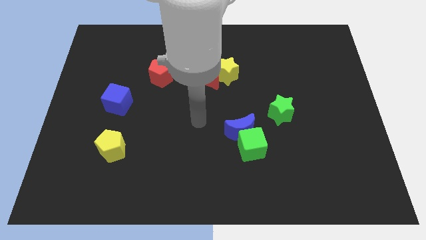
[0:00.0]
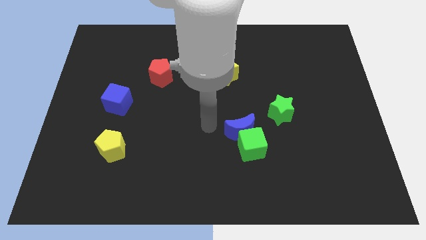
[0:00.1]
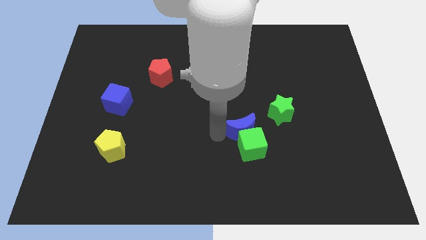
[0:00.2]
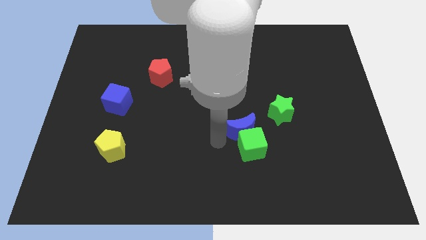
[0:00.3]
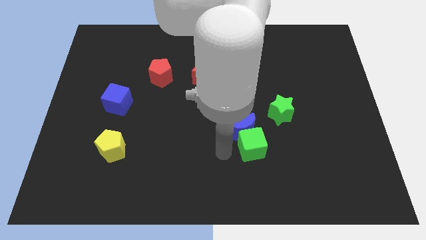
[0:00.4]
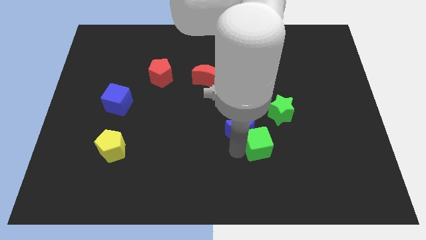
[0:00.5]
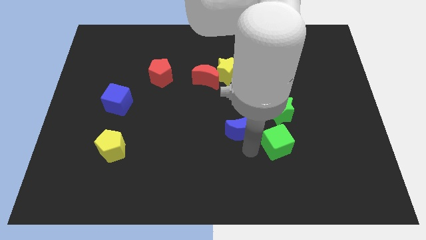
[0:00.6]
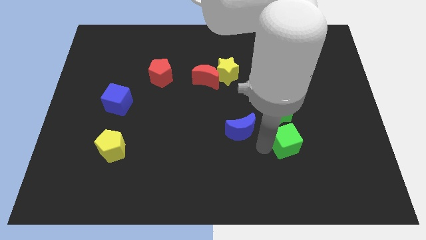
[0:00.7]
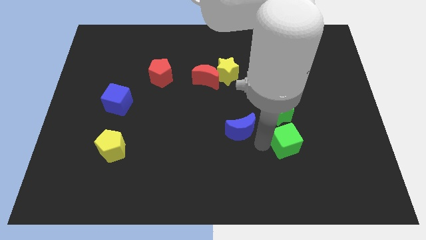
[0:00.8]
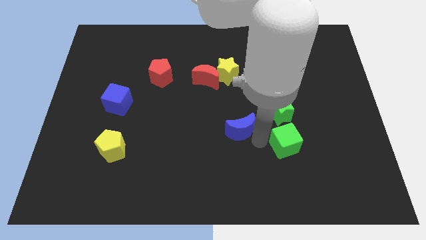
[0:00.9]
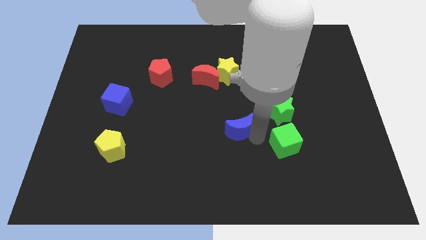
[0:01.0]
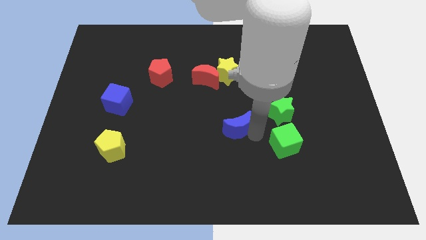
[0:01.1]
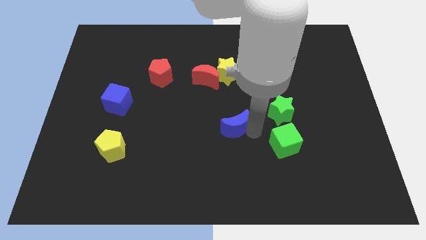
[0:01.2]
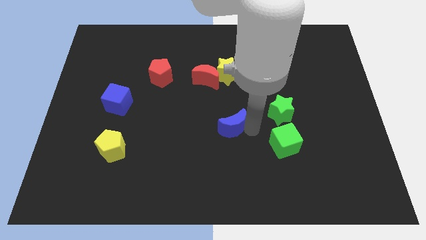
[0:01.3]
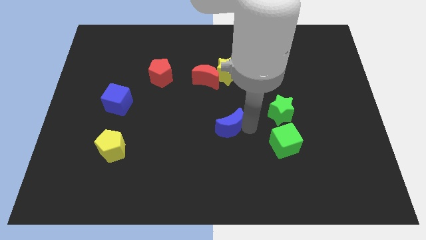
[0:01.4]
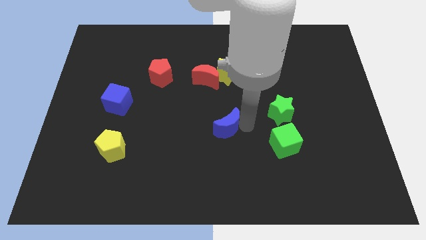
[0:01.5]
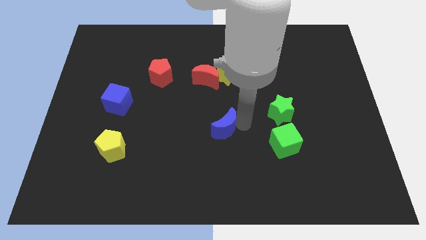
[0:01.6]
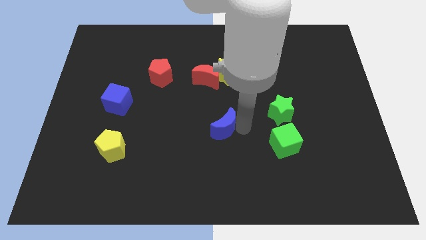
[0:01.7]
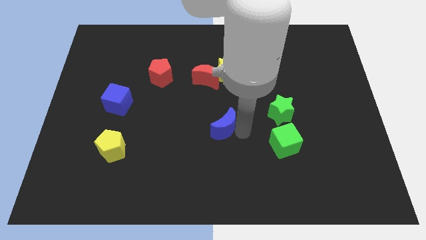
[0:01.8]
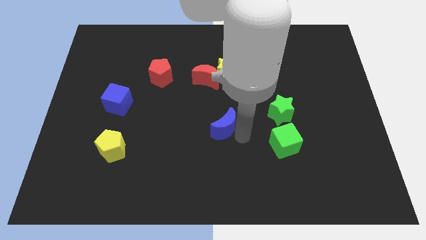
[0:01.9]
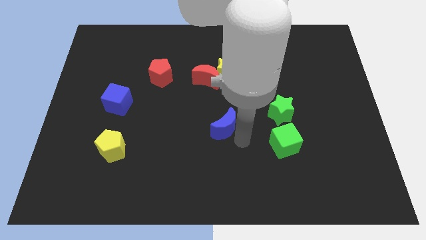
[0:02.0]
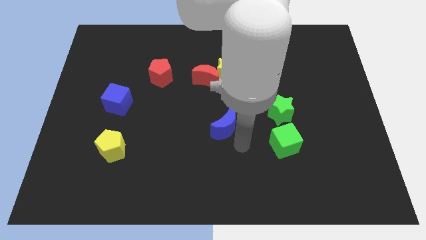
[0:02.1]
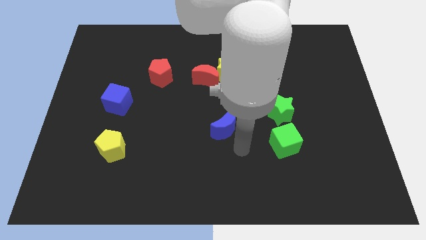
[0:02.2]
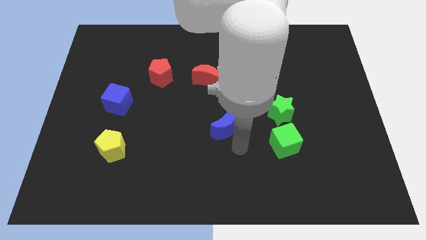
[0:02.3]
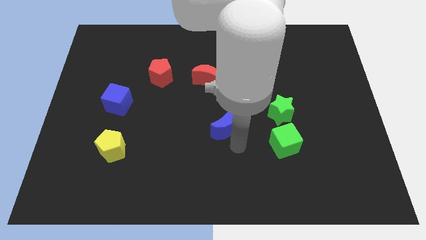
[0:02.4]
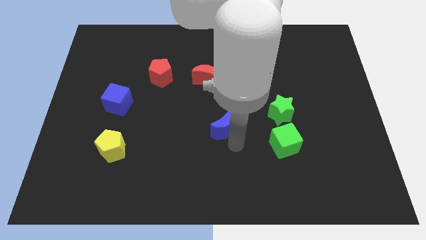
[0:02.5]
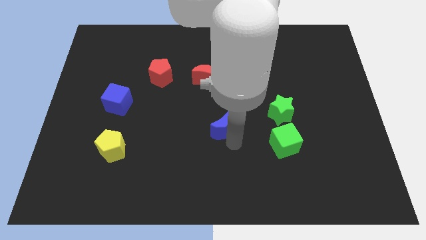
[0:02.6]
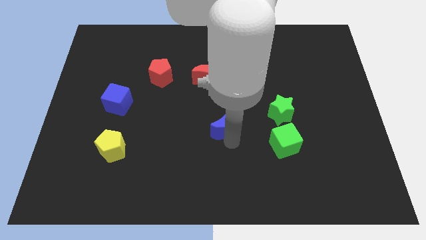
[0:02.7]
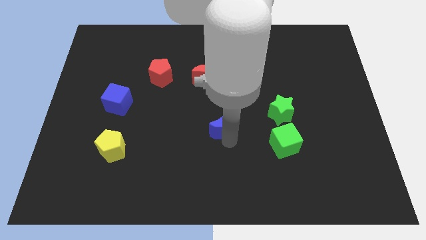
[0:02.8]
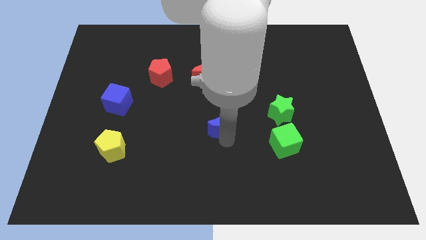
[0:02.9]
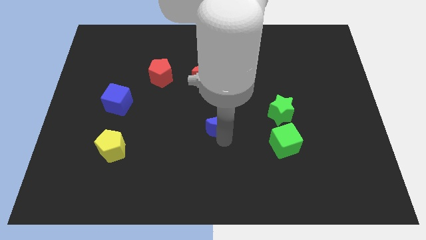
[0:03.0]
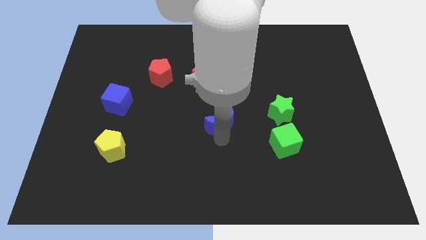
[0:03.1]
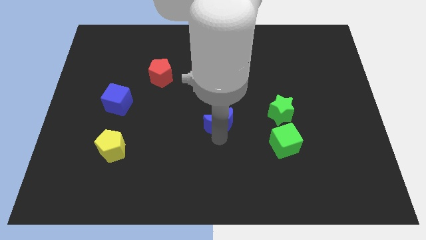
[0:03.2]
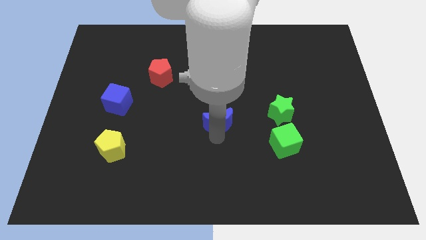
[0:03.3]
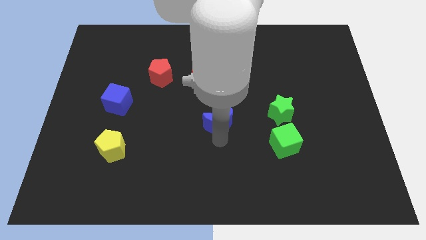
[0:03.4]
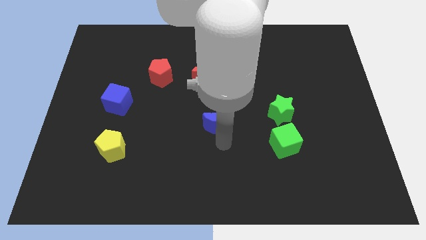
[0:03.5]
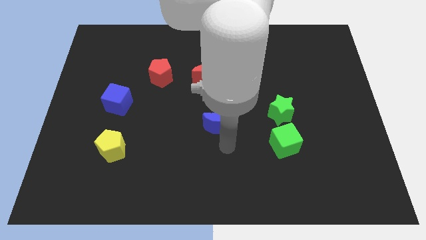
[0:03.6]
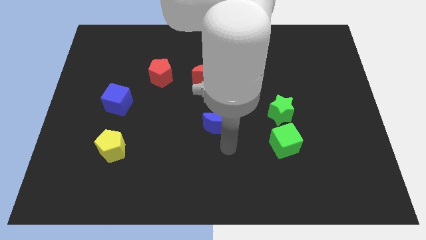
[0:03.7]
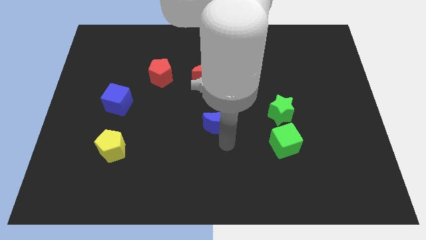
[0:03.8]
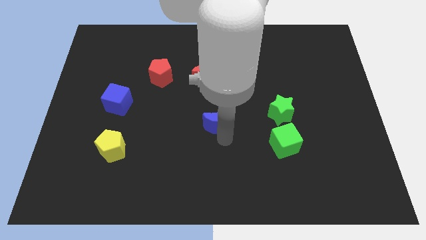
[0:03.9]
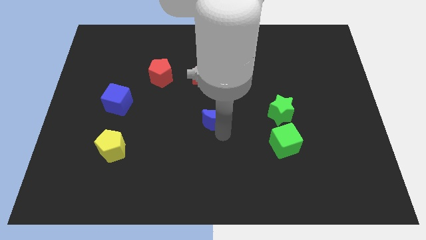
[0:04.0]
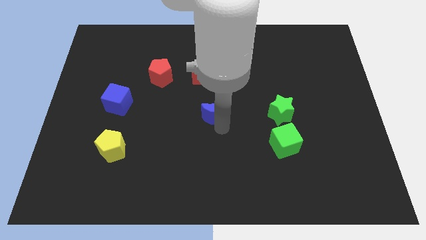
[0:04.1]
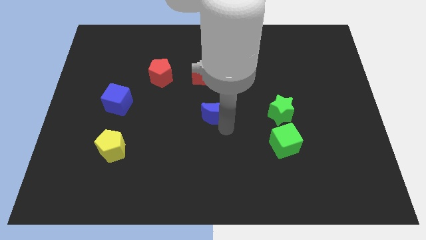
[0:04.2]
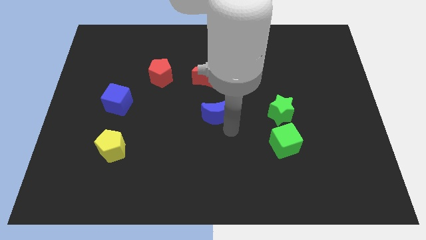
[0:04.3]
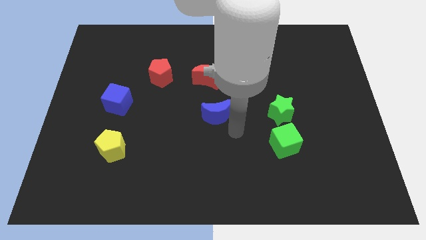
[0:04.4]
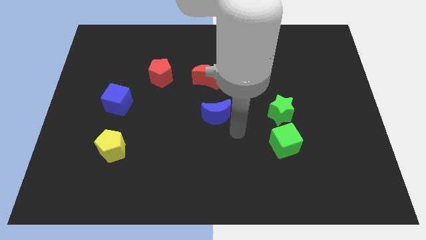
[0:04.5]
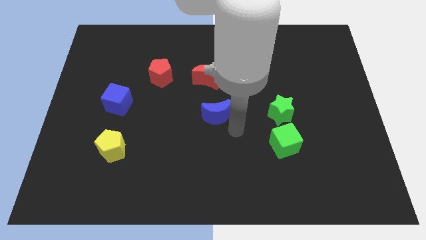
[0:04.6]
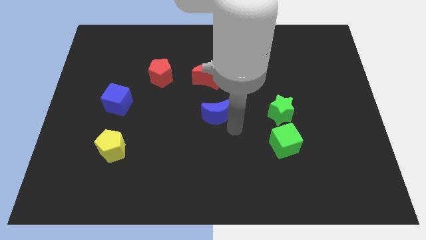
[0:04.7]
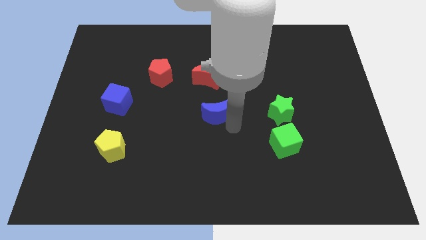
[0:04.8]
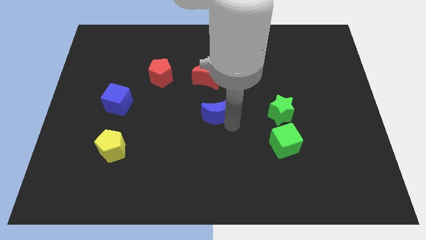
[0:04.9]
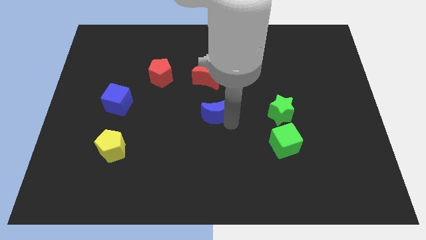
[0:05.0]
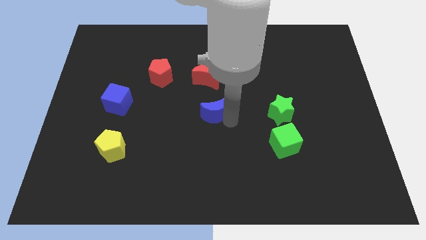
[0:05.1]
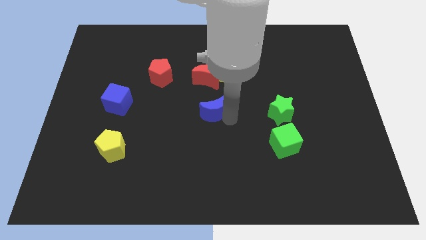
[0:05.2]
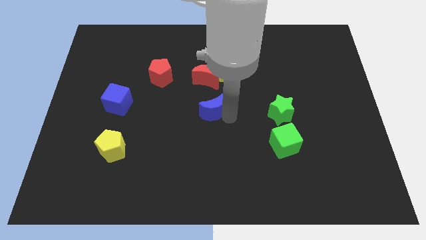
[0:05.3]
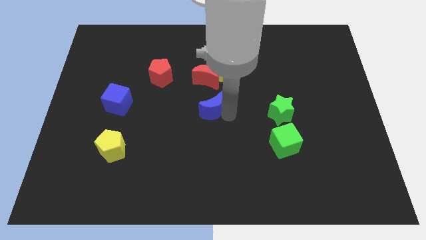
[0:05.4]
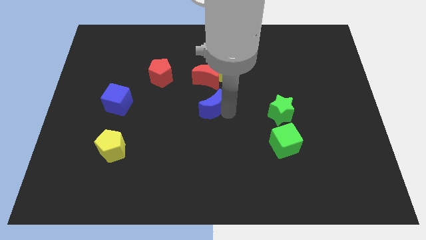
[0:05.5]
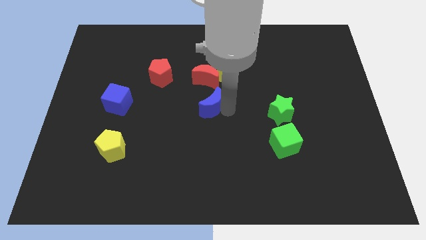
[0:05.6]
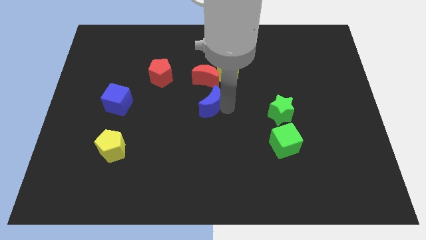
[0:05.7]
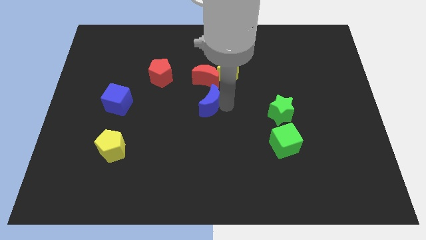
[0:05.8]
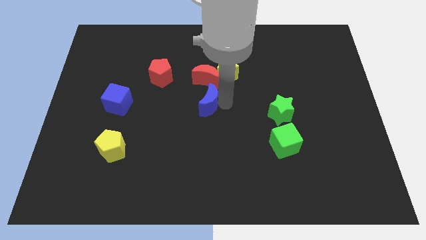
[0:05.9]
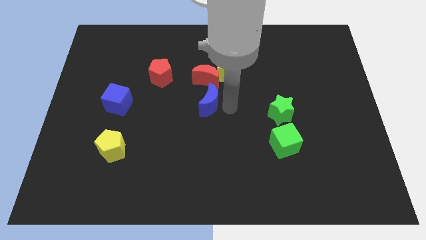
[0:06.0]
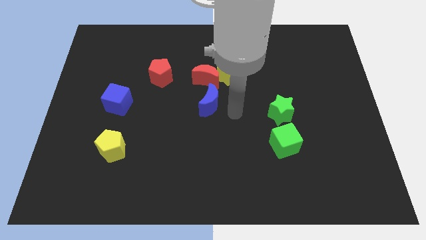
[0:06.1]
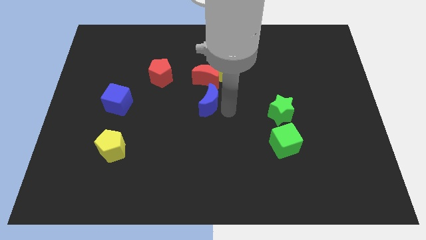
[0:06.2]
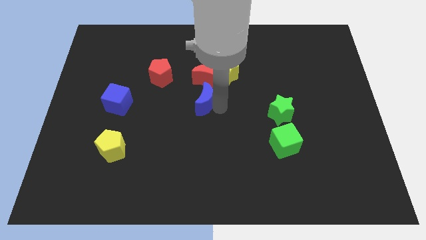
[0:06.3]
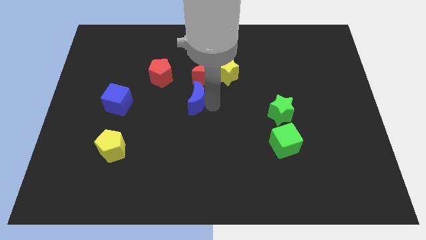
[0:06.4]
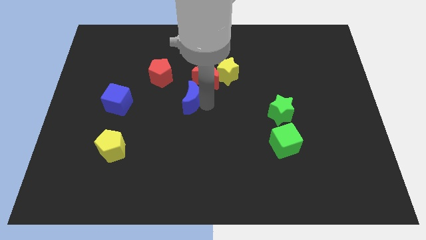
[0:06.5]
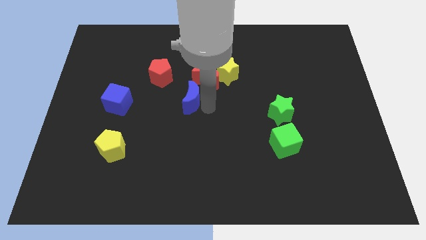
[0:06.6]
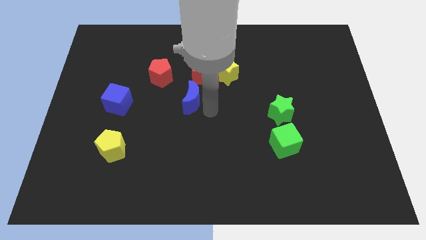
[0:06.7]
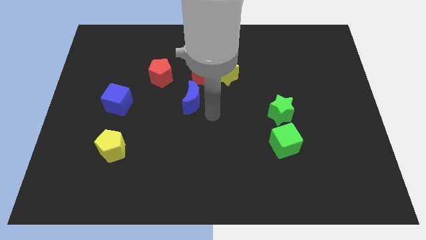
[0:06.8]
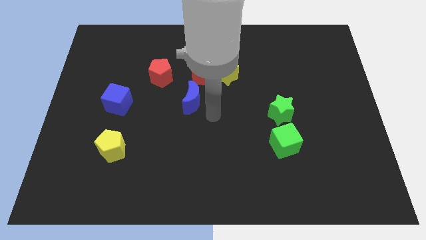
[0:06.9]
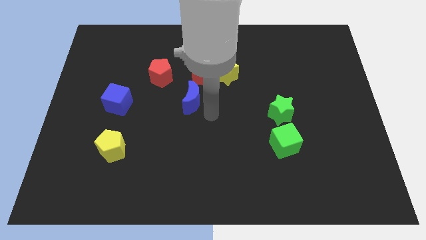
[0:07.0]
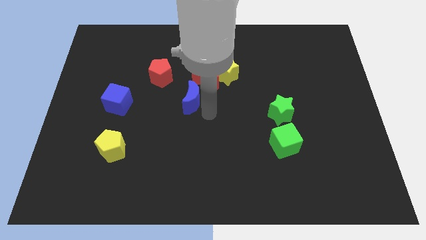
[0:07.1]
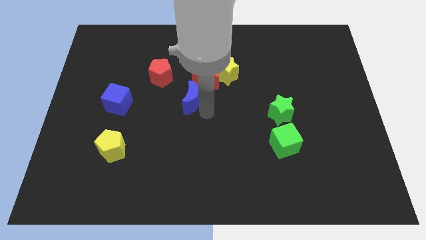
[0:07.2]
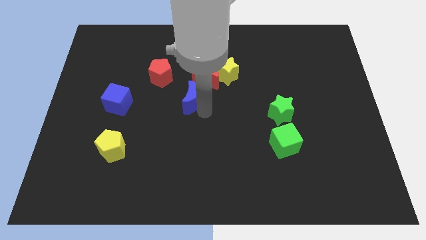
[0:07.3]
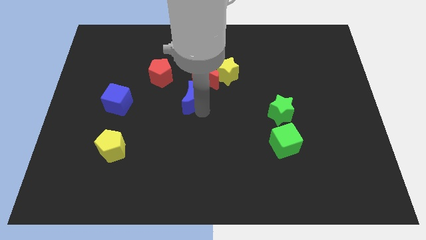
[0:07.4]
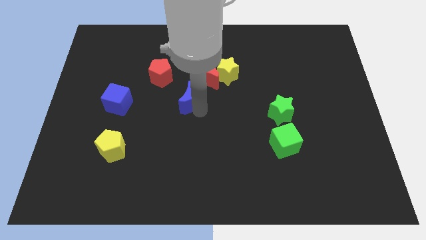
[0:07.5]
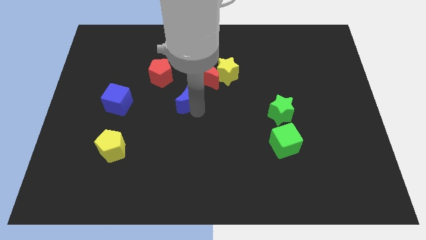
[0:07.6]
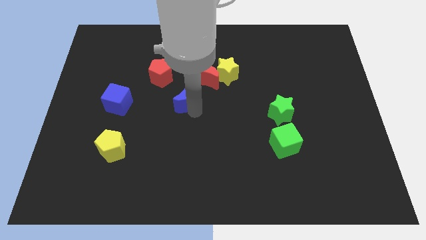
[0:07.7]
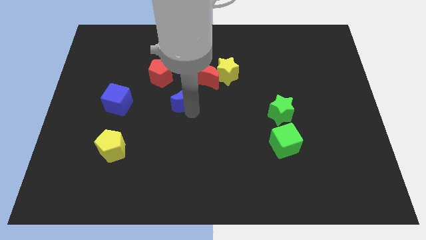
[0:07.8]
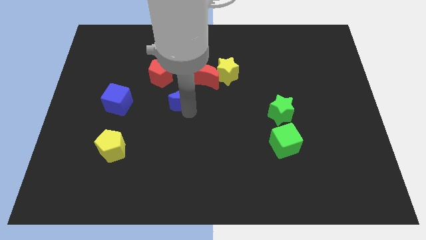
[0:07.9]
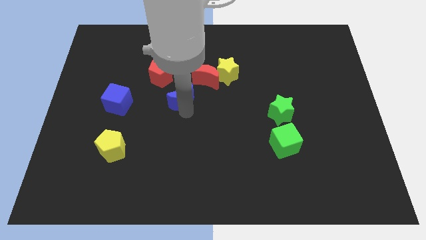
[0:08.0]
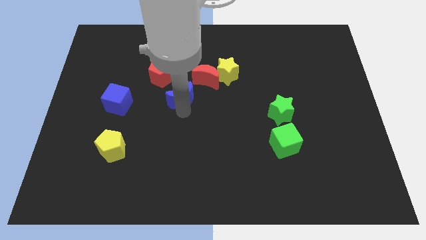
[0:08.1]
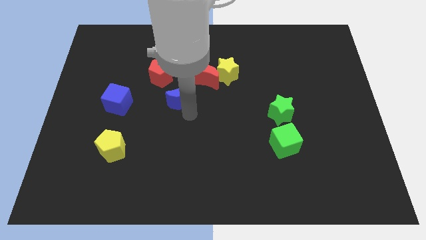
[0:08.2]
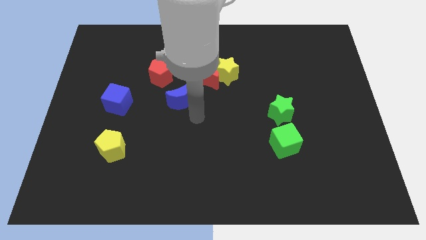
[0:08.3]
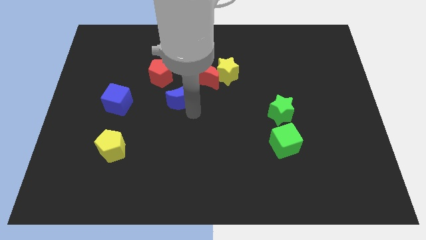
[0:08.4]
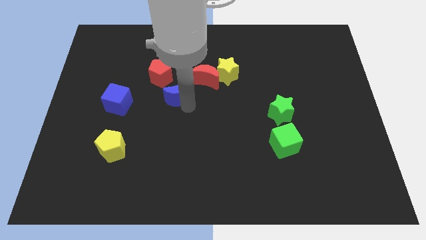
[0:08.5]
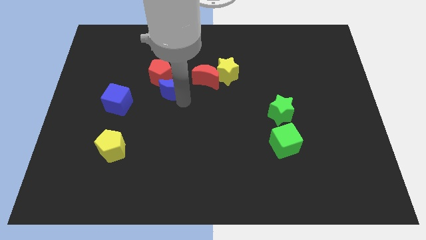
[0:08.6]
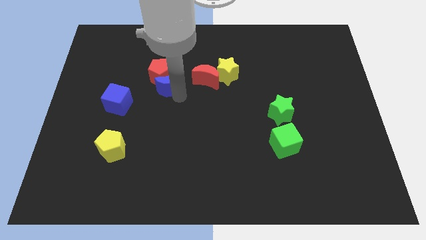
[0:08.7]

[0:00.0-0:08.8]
slide the blue moon towards the red pentagon
